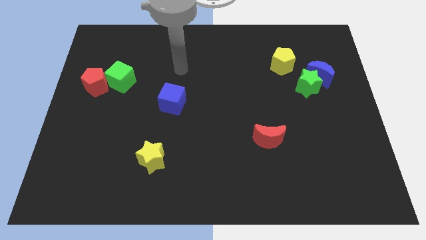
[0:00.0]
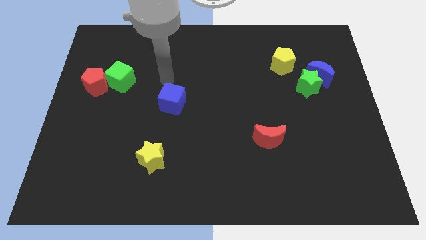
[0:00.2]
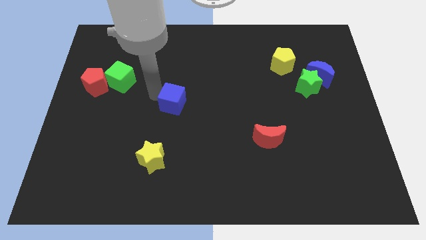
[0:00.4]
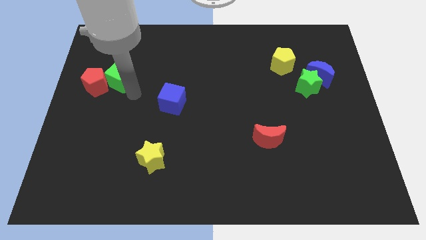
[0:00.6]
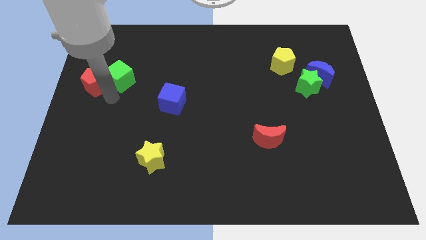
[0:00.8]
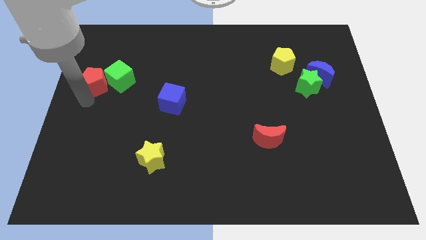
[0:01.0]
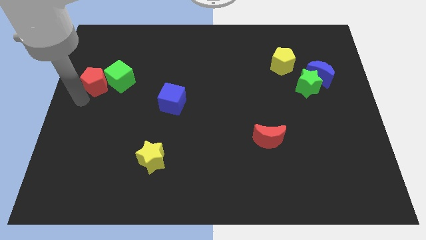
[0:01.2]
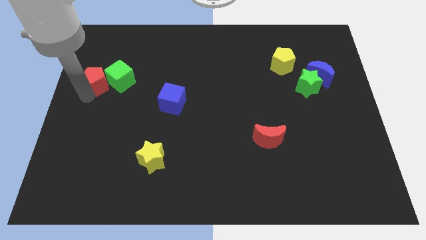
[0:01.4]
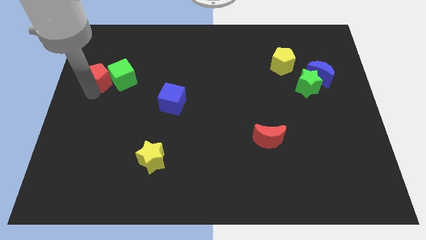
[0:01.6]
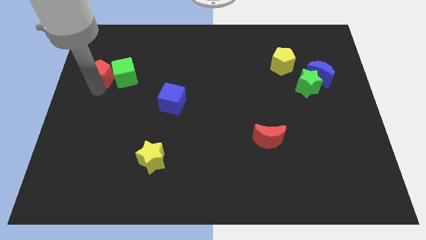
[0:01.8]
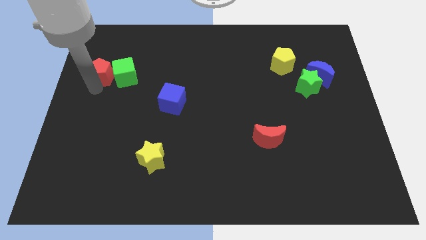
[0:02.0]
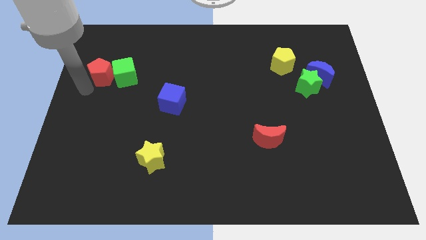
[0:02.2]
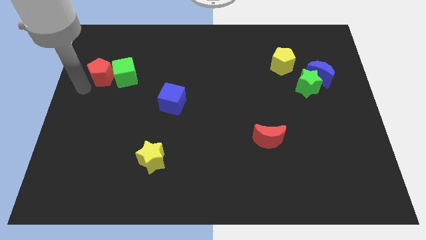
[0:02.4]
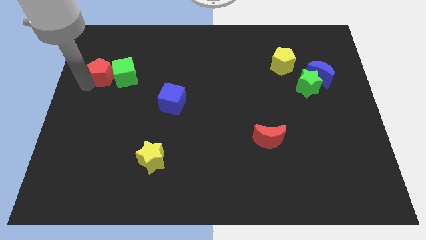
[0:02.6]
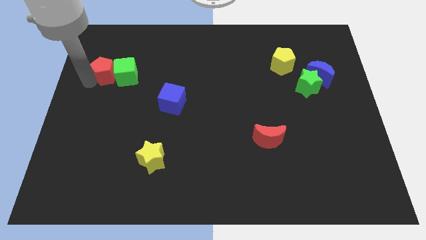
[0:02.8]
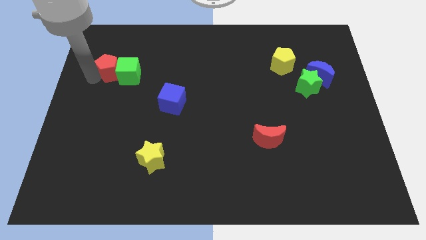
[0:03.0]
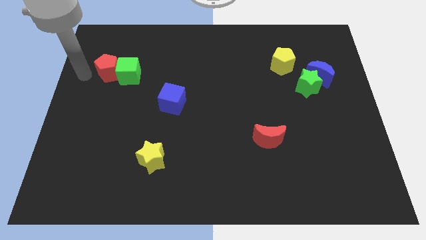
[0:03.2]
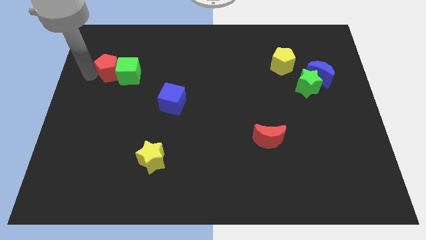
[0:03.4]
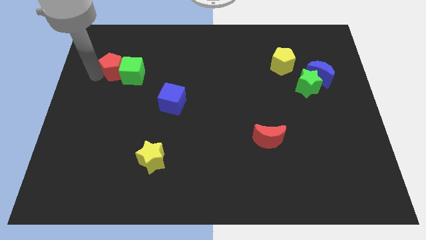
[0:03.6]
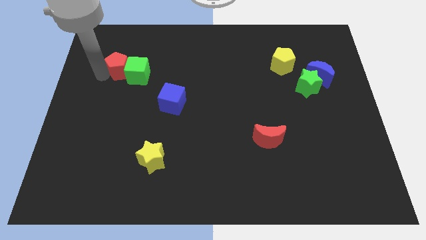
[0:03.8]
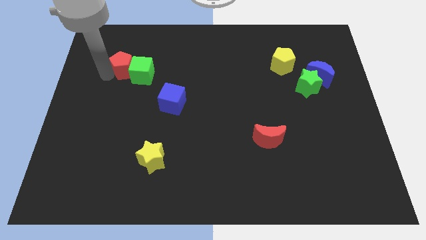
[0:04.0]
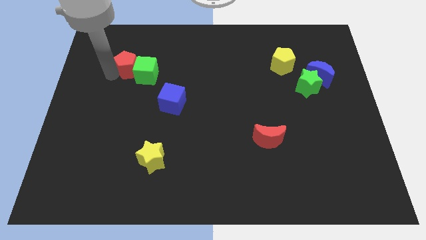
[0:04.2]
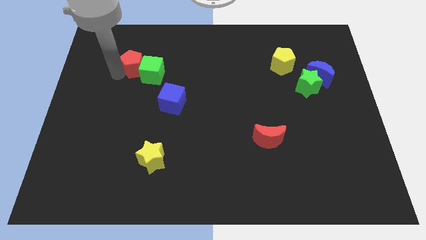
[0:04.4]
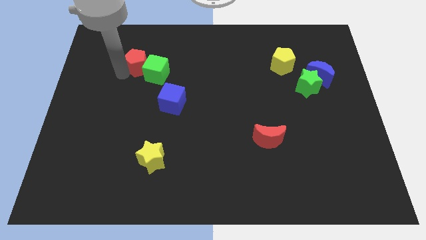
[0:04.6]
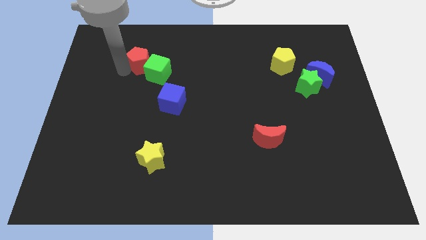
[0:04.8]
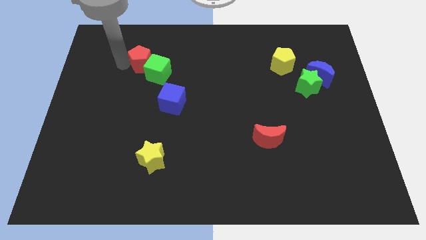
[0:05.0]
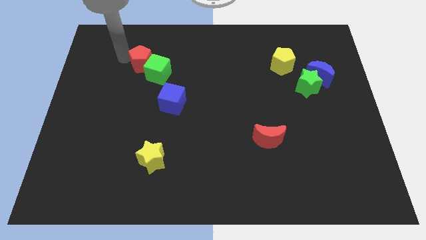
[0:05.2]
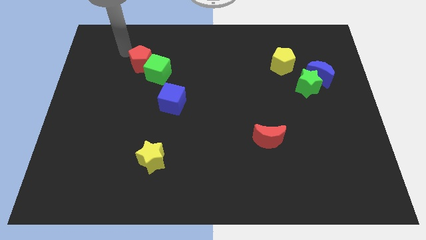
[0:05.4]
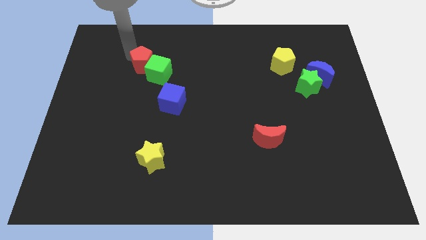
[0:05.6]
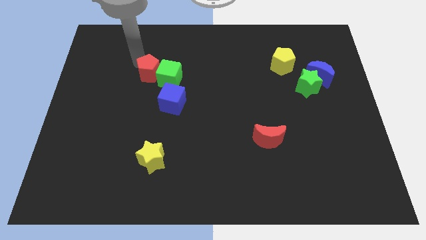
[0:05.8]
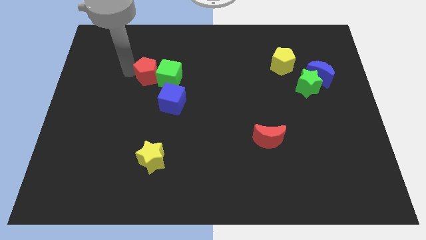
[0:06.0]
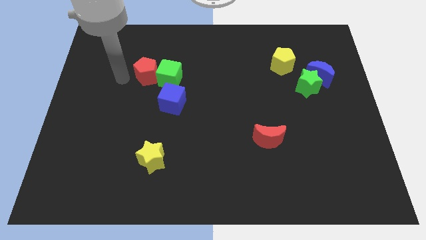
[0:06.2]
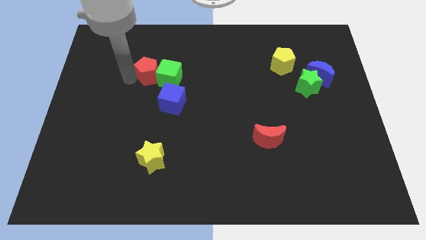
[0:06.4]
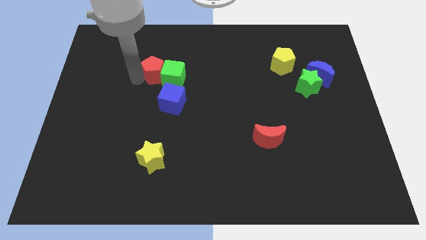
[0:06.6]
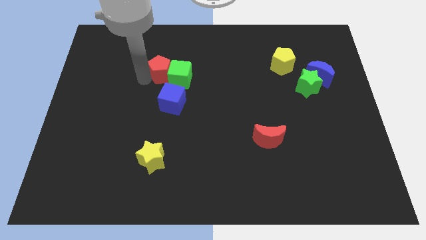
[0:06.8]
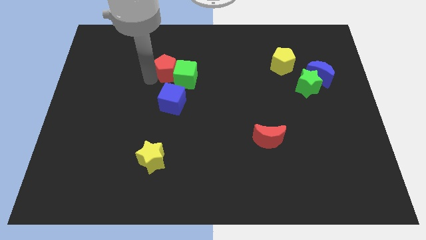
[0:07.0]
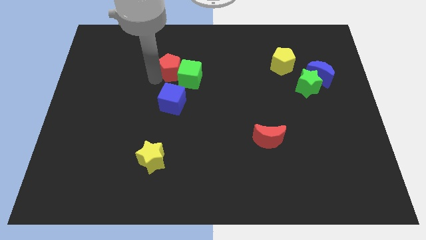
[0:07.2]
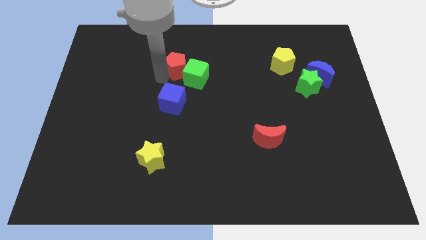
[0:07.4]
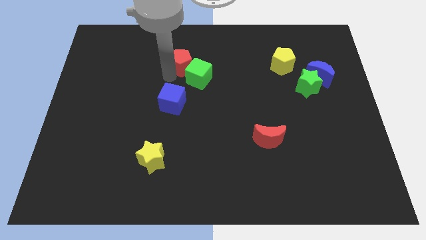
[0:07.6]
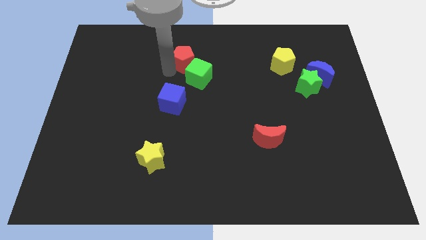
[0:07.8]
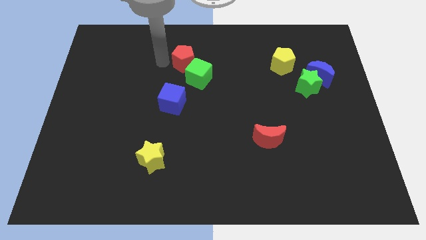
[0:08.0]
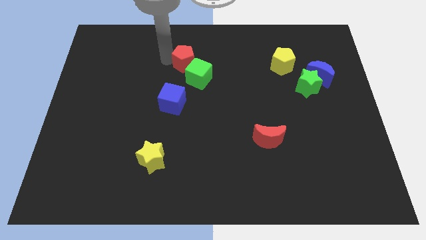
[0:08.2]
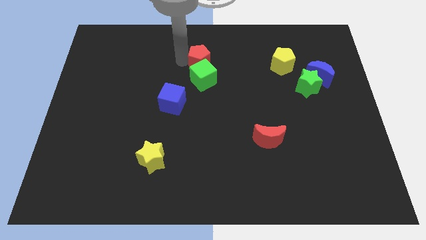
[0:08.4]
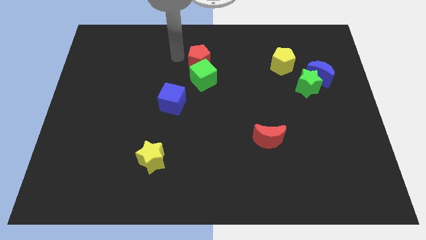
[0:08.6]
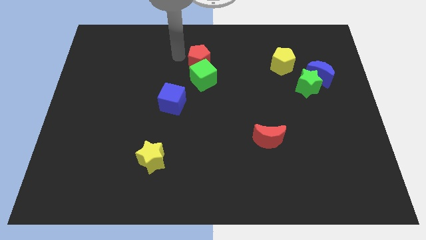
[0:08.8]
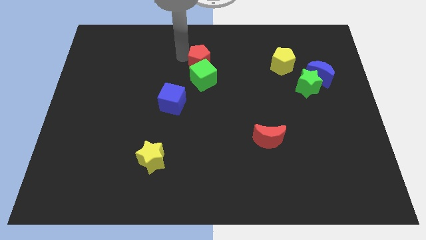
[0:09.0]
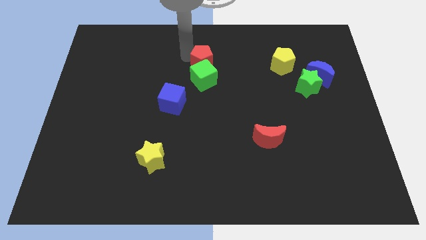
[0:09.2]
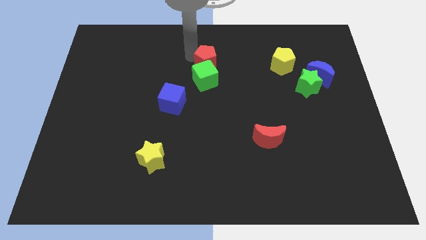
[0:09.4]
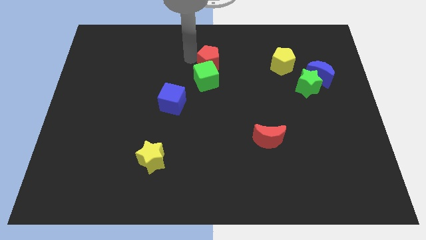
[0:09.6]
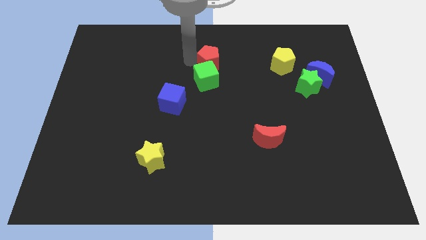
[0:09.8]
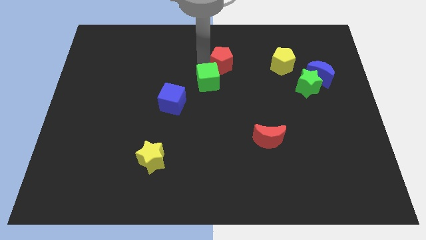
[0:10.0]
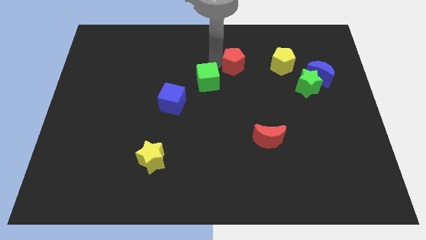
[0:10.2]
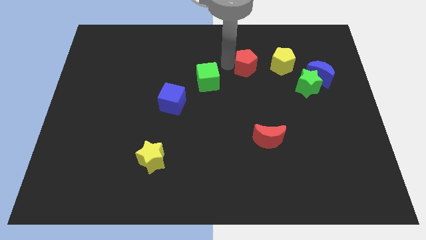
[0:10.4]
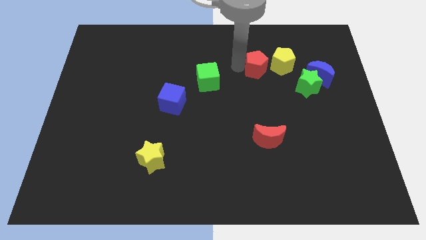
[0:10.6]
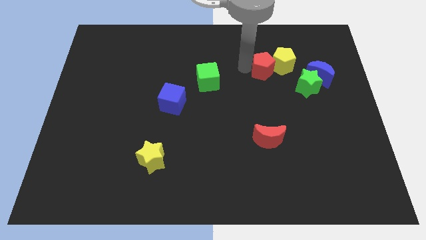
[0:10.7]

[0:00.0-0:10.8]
slide the red pentagon to the yellow pentagon

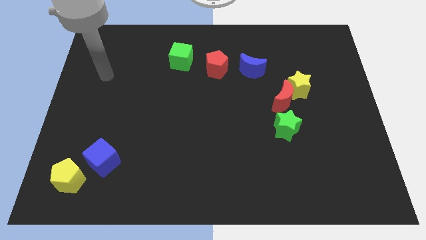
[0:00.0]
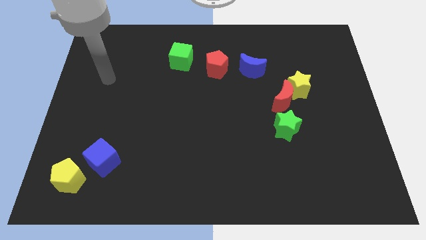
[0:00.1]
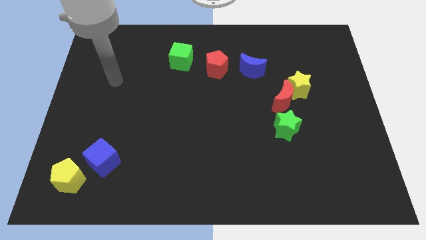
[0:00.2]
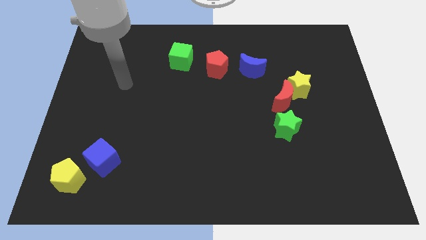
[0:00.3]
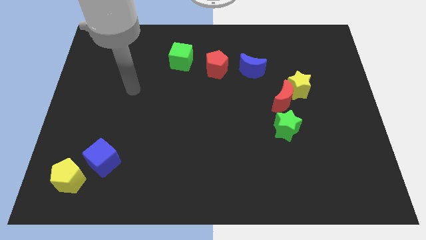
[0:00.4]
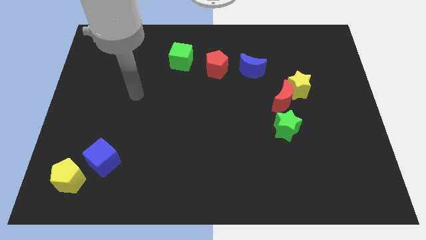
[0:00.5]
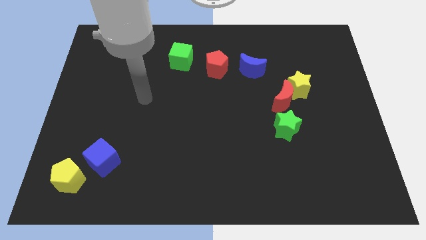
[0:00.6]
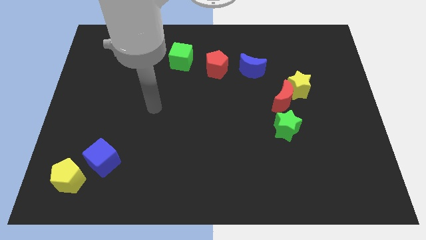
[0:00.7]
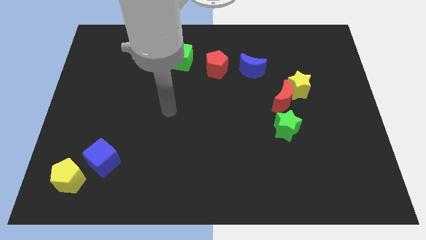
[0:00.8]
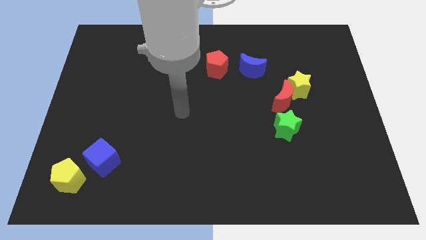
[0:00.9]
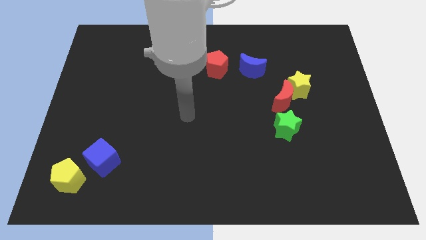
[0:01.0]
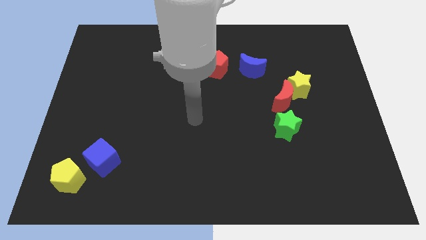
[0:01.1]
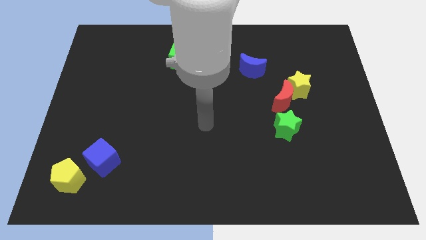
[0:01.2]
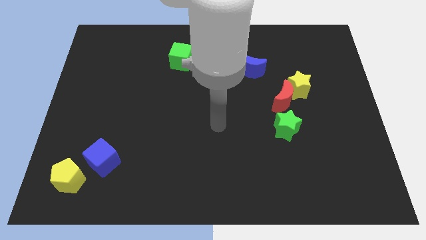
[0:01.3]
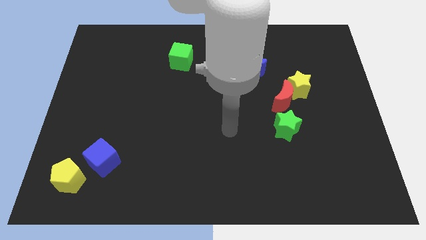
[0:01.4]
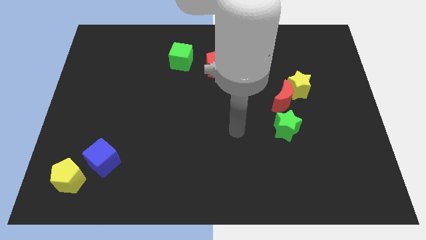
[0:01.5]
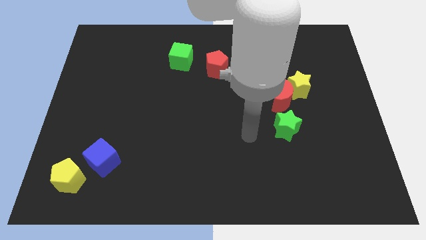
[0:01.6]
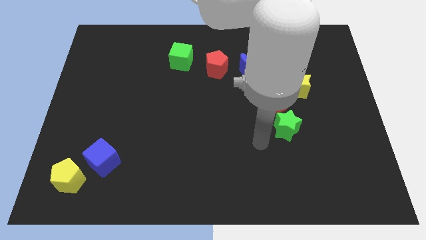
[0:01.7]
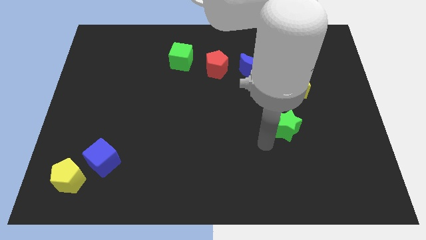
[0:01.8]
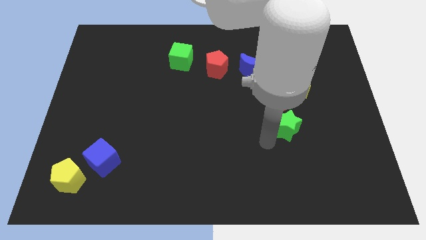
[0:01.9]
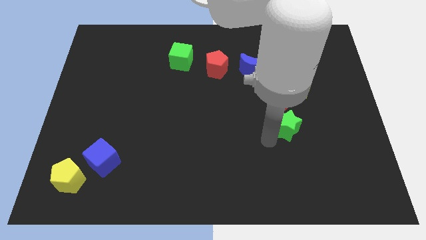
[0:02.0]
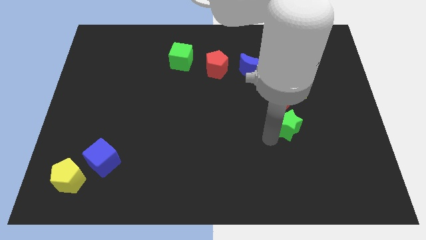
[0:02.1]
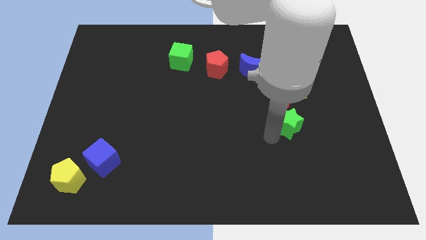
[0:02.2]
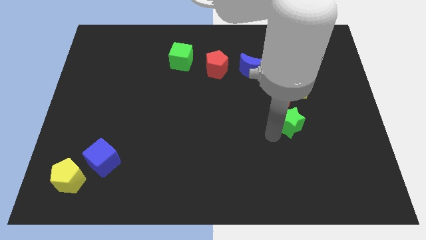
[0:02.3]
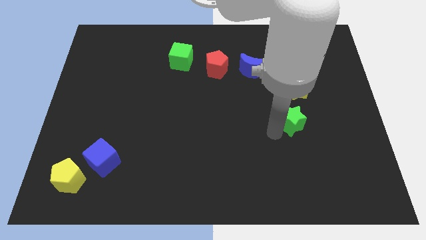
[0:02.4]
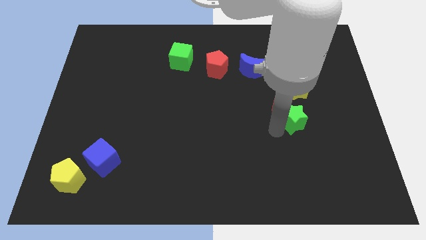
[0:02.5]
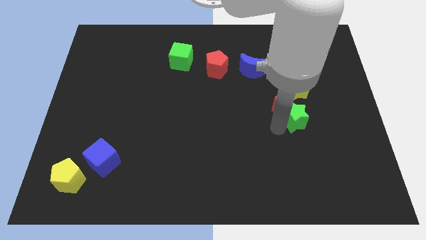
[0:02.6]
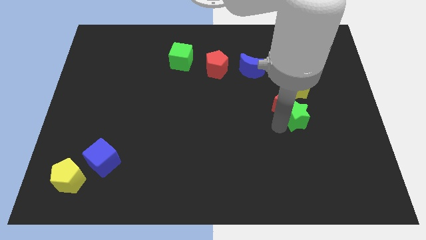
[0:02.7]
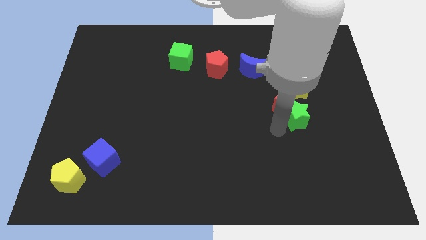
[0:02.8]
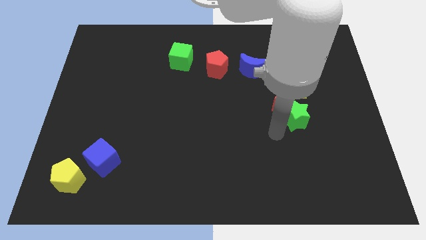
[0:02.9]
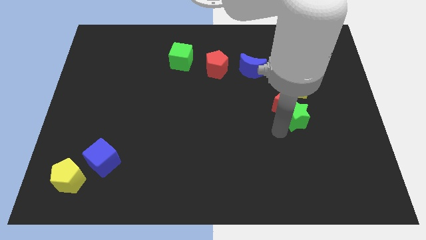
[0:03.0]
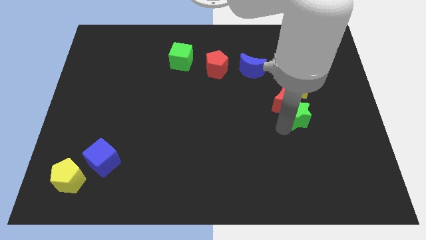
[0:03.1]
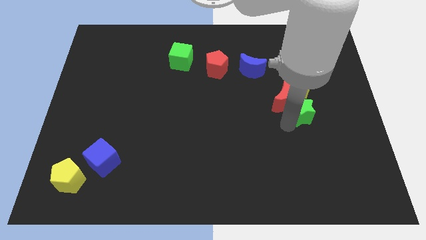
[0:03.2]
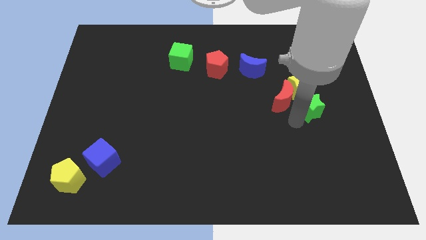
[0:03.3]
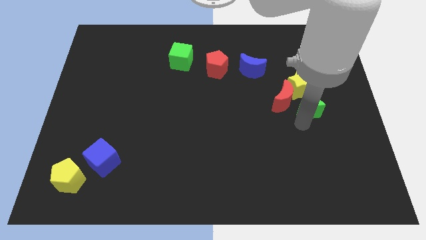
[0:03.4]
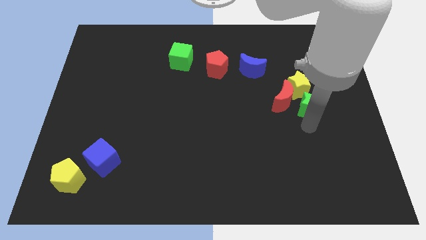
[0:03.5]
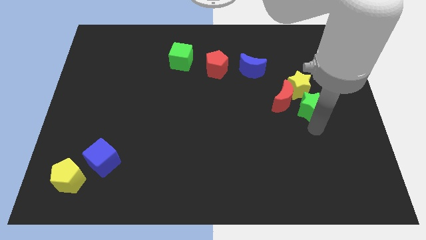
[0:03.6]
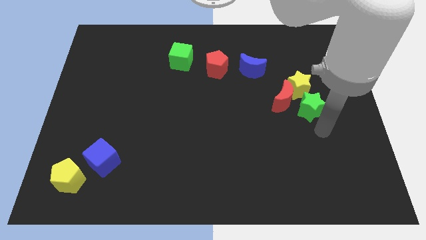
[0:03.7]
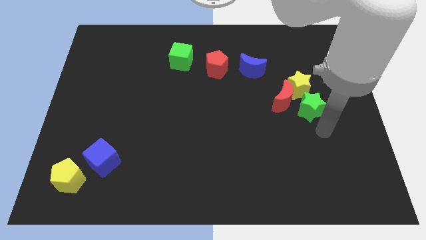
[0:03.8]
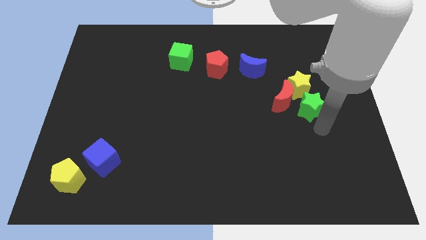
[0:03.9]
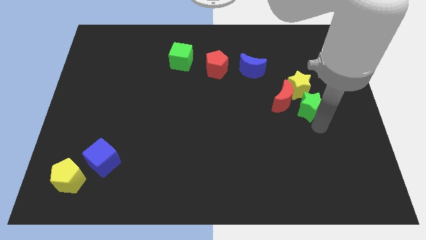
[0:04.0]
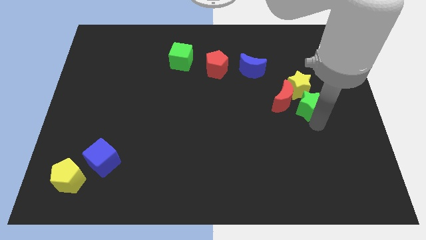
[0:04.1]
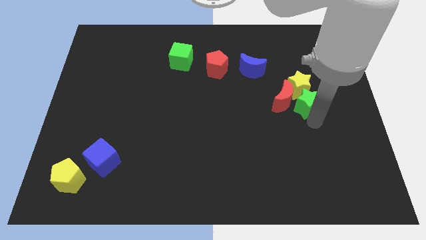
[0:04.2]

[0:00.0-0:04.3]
slide the green star next to the yellow star
